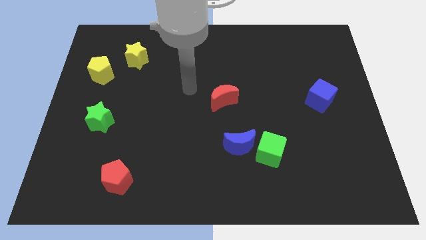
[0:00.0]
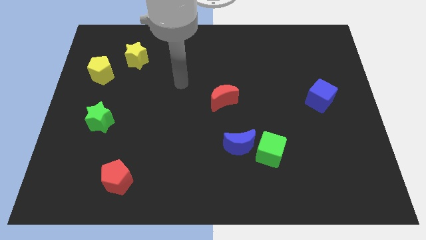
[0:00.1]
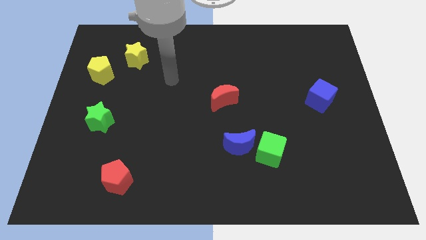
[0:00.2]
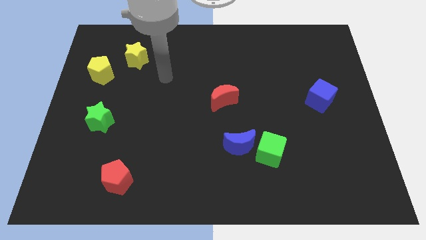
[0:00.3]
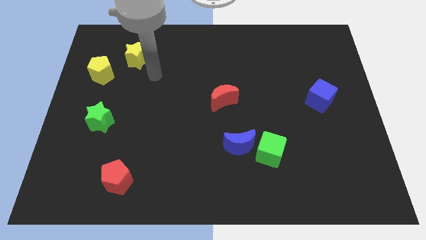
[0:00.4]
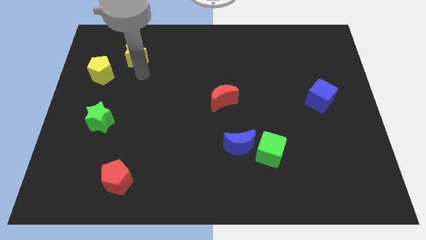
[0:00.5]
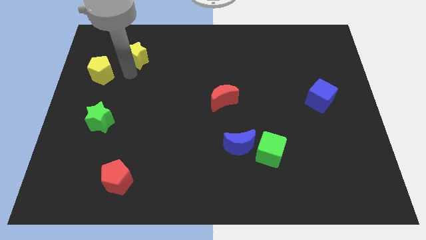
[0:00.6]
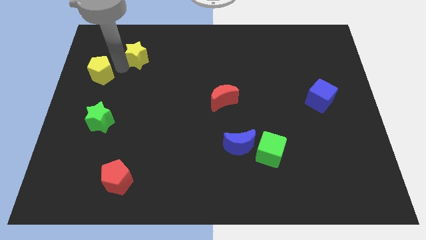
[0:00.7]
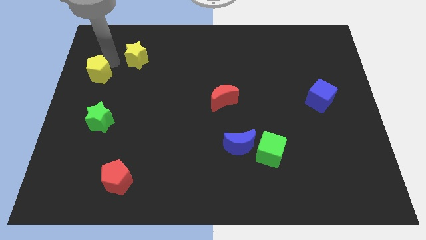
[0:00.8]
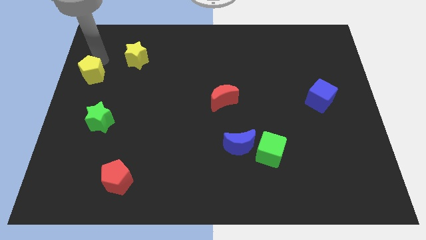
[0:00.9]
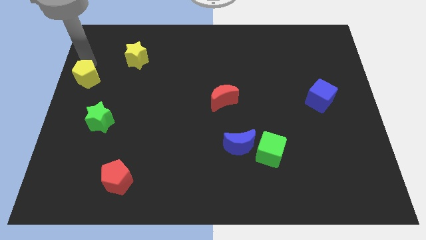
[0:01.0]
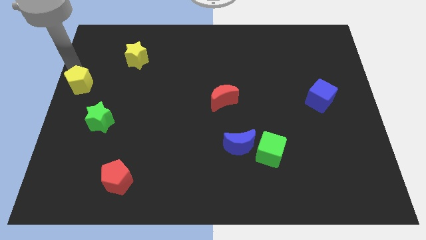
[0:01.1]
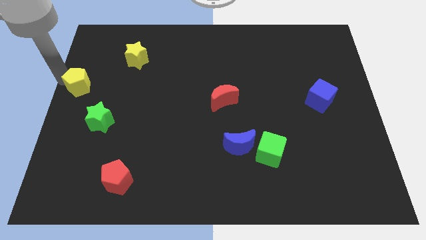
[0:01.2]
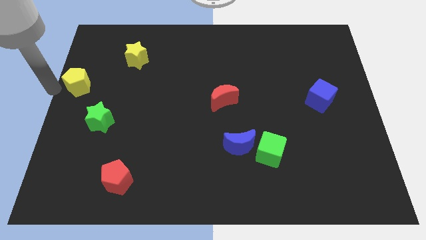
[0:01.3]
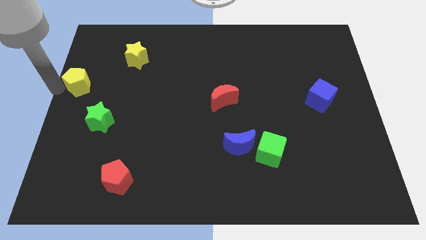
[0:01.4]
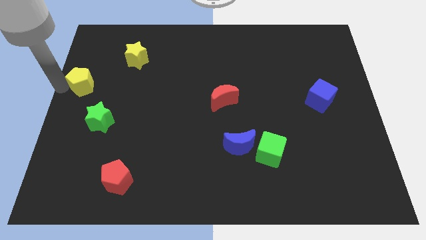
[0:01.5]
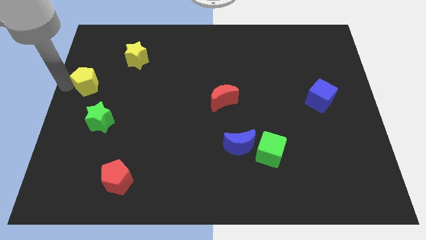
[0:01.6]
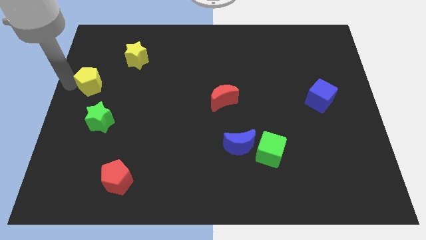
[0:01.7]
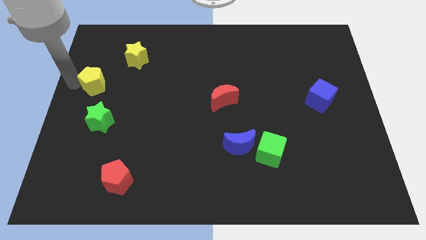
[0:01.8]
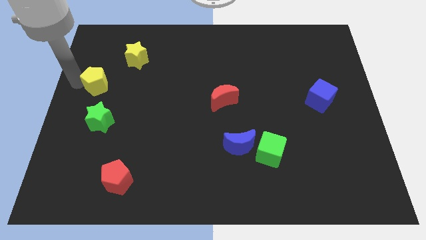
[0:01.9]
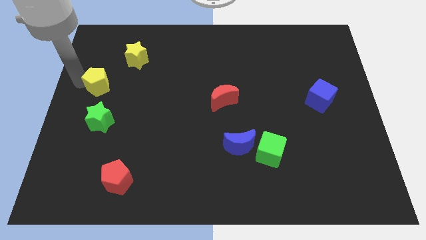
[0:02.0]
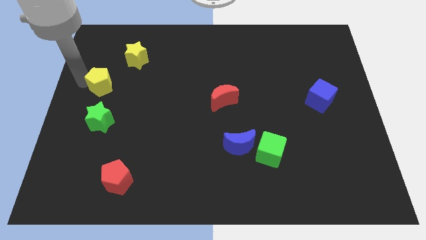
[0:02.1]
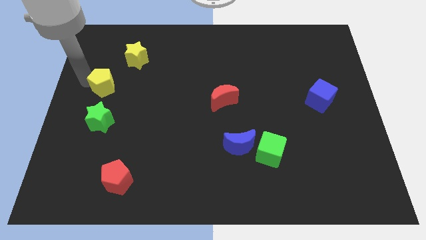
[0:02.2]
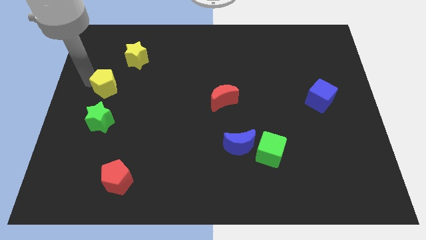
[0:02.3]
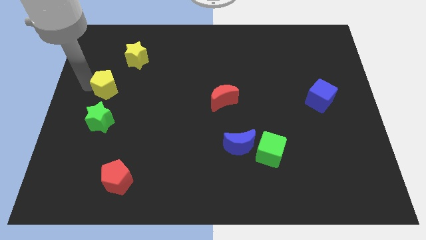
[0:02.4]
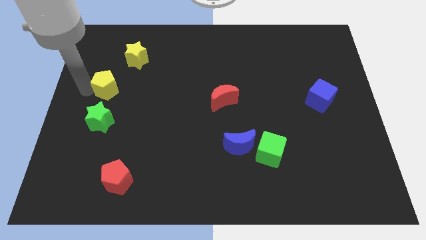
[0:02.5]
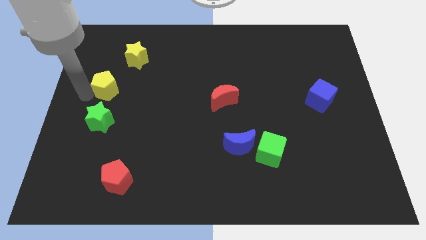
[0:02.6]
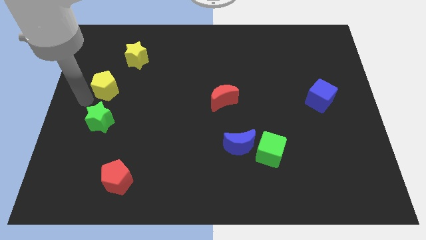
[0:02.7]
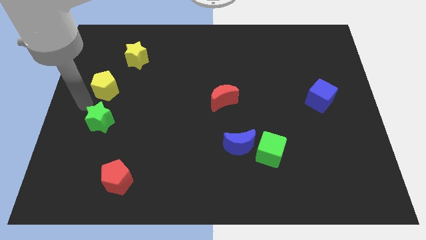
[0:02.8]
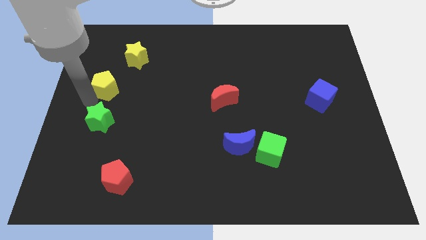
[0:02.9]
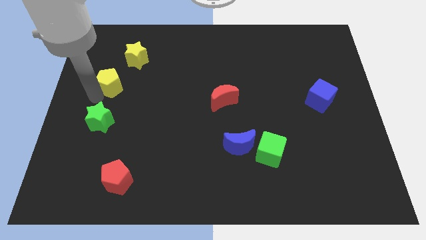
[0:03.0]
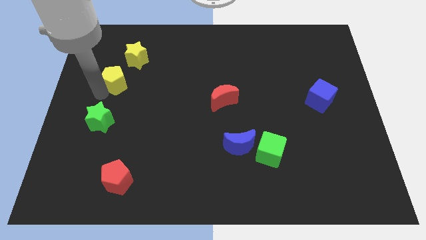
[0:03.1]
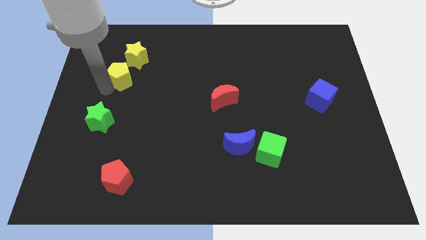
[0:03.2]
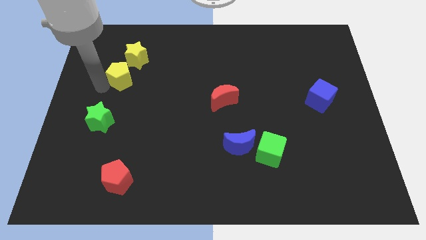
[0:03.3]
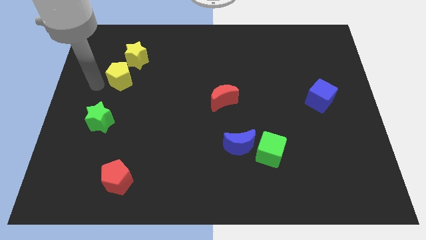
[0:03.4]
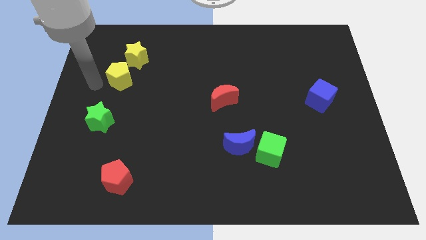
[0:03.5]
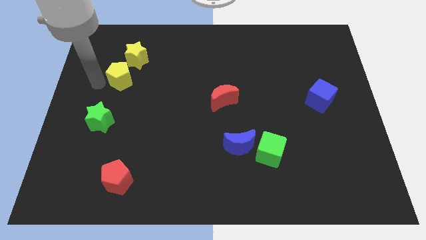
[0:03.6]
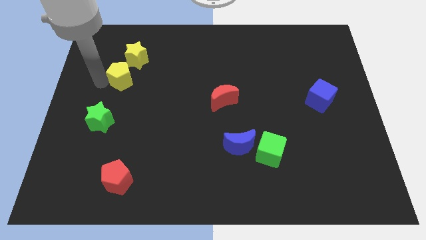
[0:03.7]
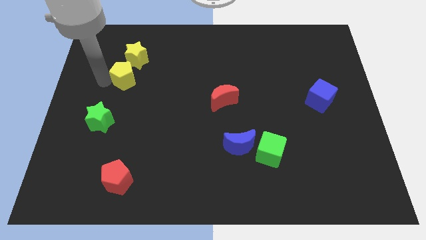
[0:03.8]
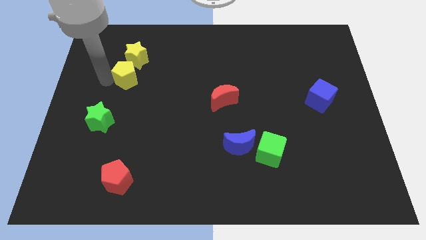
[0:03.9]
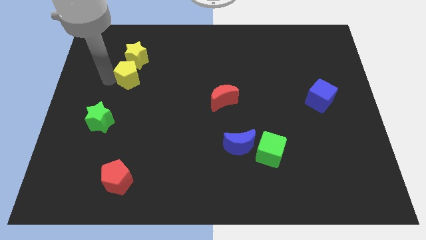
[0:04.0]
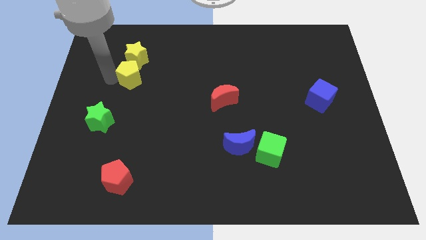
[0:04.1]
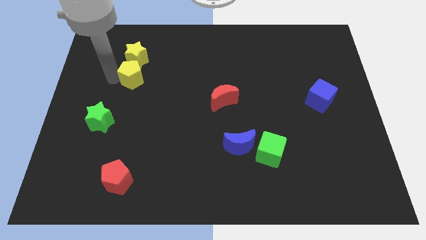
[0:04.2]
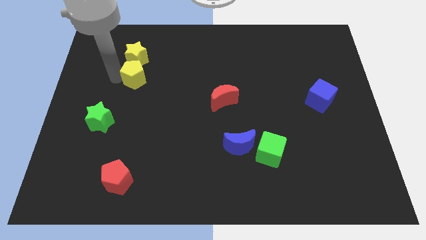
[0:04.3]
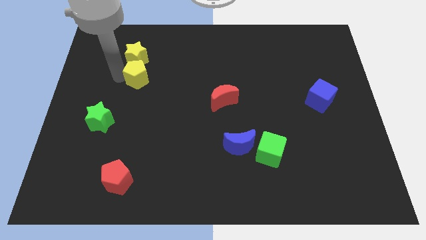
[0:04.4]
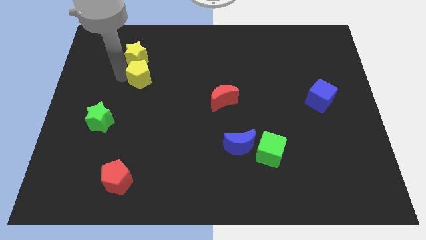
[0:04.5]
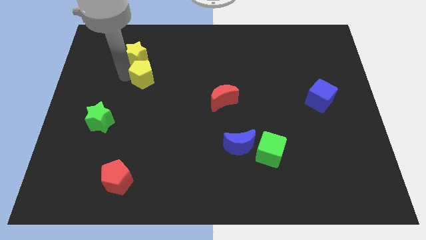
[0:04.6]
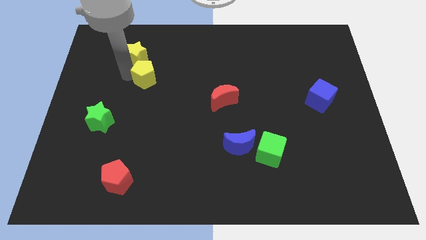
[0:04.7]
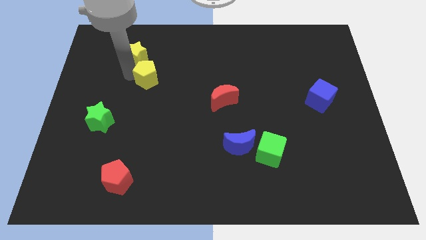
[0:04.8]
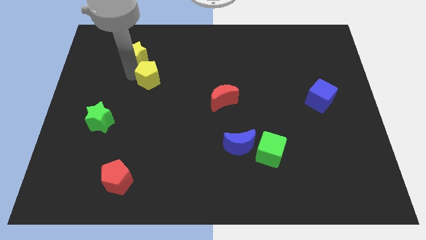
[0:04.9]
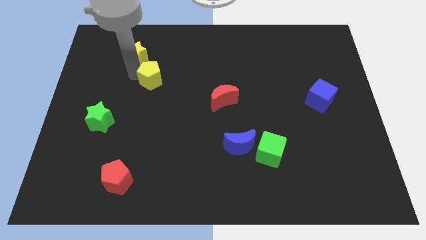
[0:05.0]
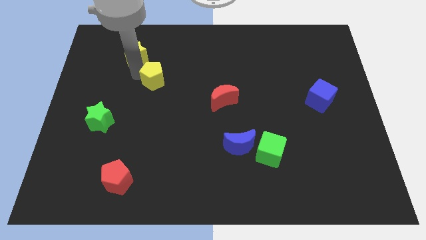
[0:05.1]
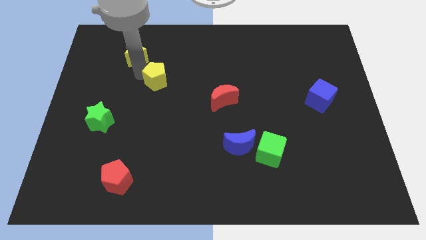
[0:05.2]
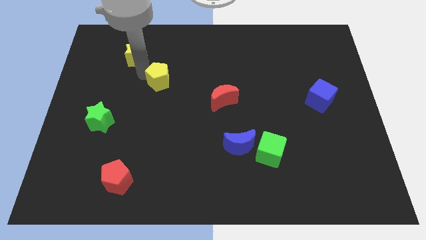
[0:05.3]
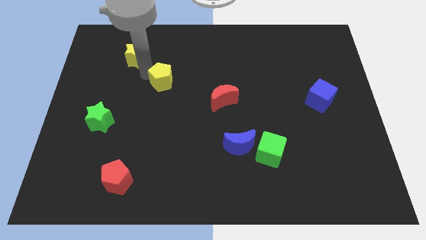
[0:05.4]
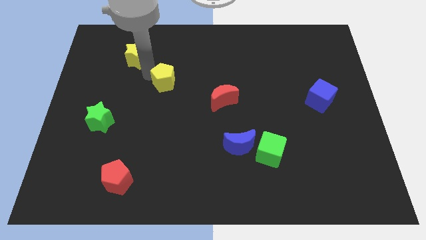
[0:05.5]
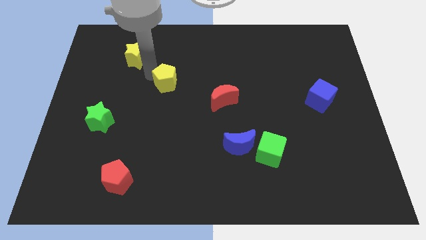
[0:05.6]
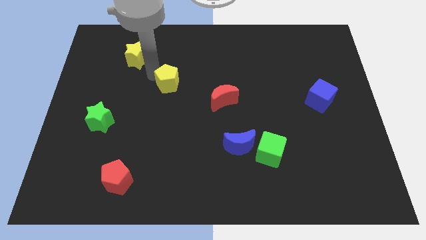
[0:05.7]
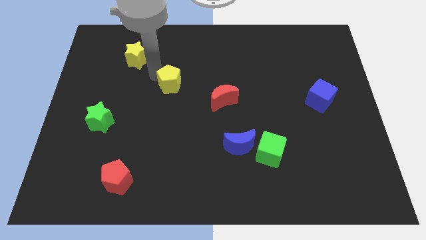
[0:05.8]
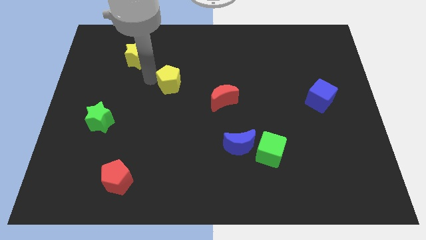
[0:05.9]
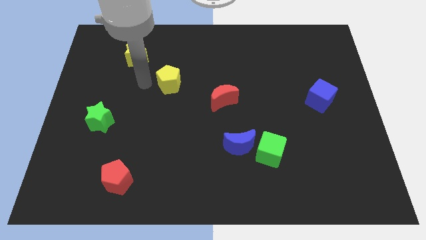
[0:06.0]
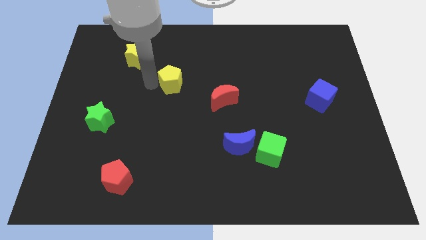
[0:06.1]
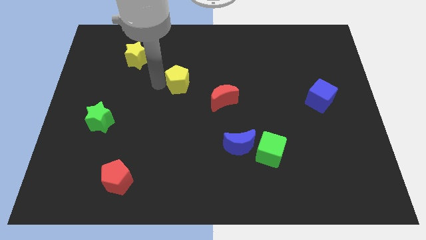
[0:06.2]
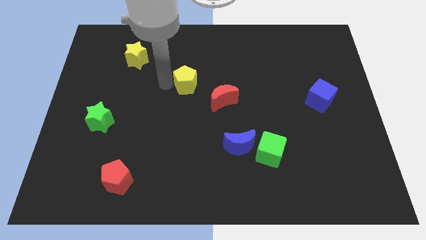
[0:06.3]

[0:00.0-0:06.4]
push the yellow pentagon to the top left side of the red moon
